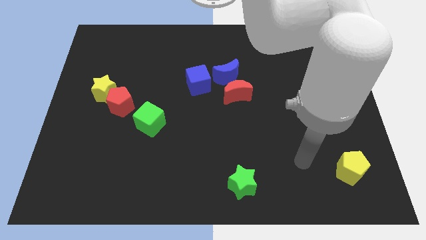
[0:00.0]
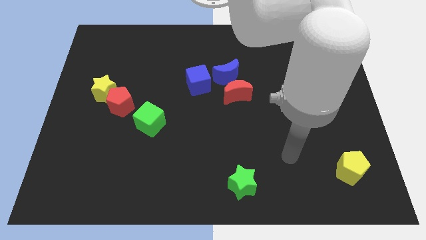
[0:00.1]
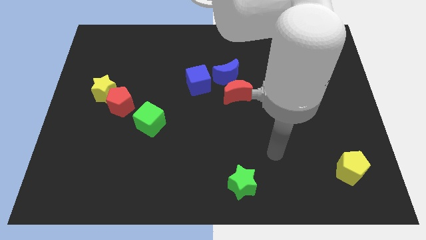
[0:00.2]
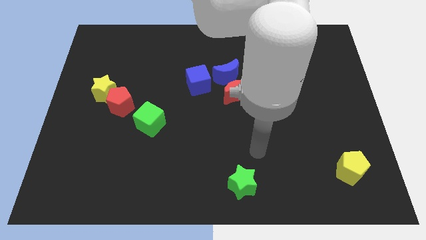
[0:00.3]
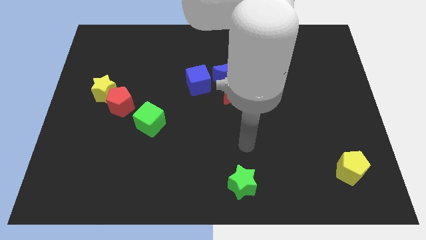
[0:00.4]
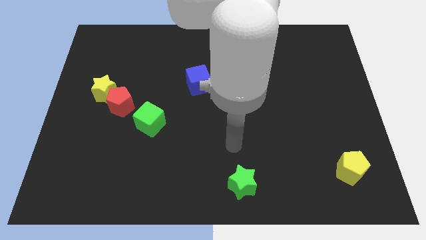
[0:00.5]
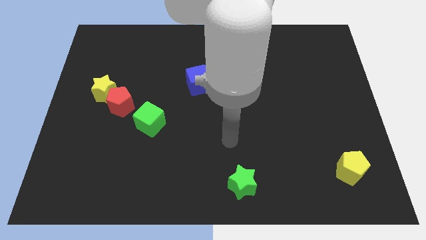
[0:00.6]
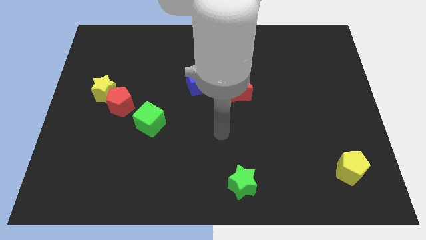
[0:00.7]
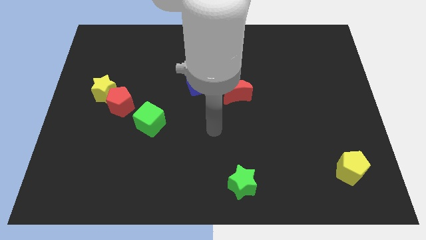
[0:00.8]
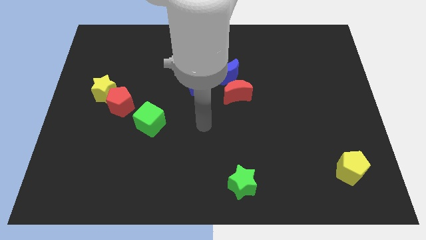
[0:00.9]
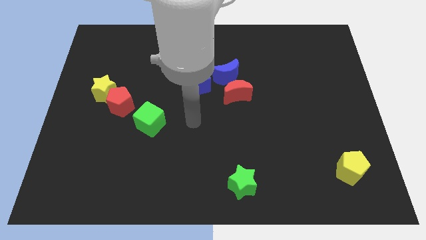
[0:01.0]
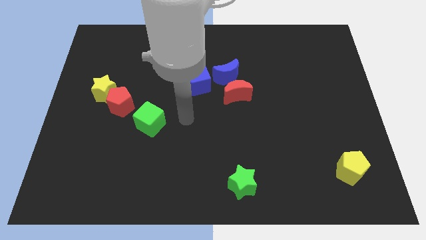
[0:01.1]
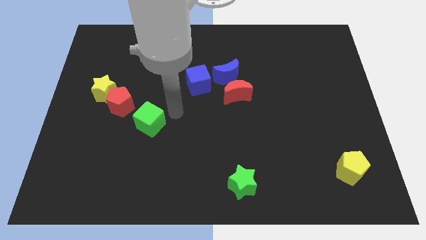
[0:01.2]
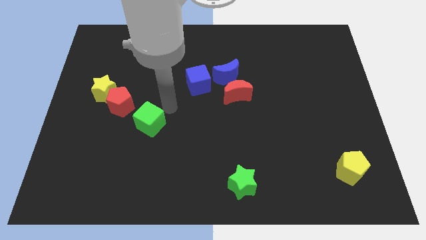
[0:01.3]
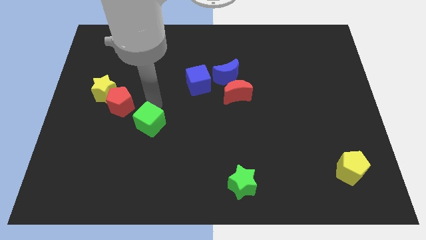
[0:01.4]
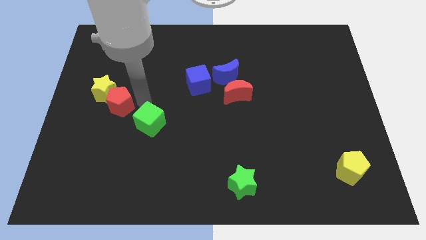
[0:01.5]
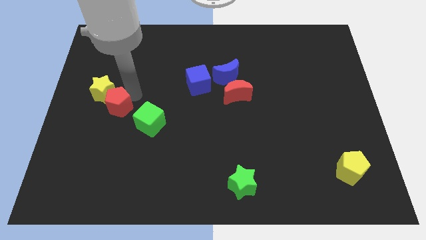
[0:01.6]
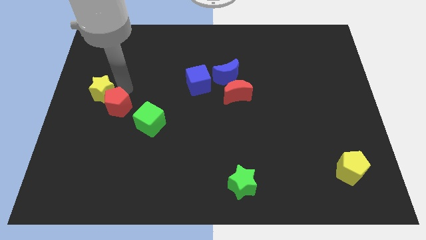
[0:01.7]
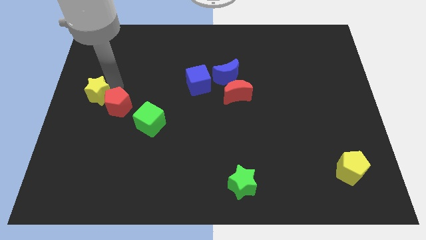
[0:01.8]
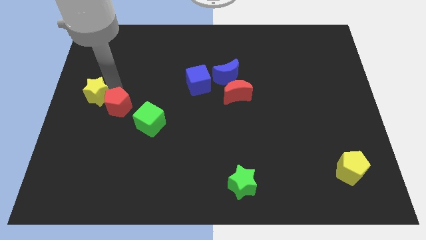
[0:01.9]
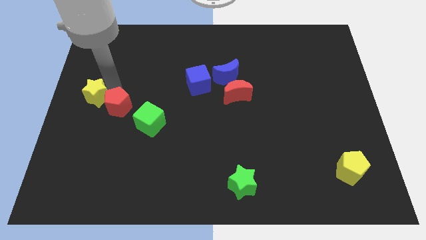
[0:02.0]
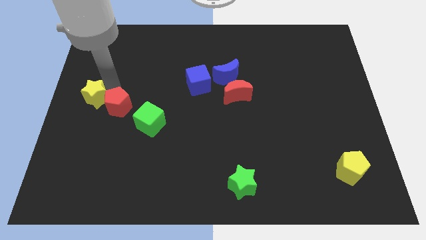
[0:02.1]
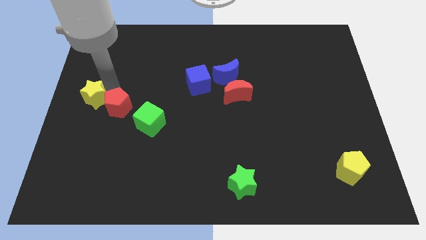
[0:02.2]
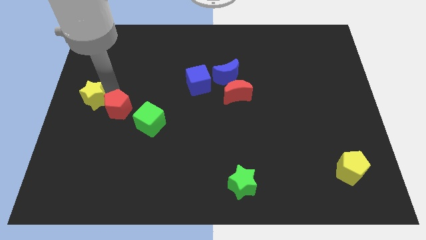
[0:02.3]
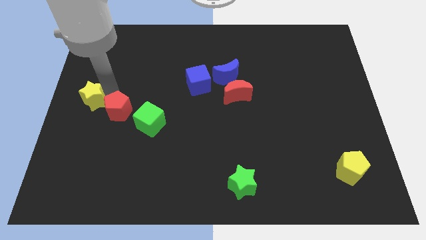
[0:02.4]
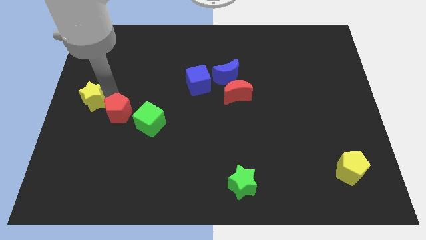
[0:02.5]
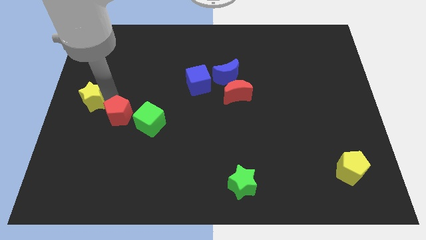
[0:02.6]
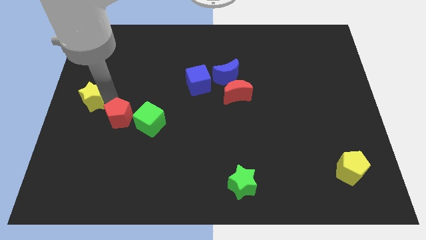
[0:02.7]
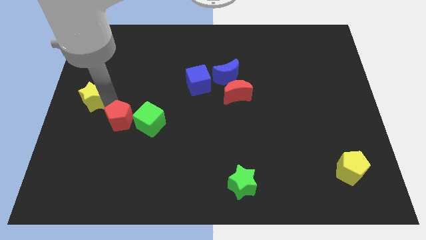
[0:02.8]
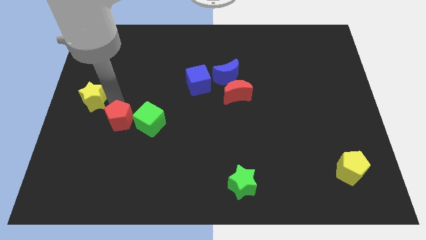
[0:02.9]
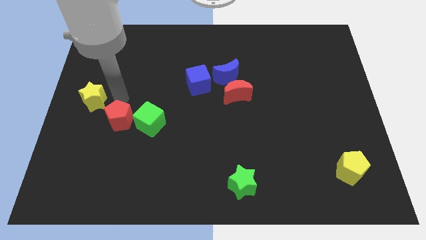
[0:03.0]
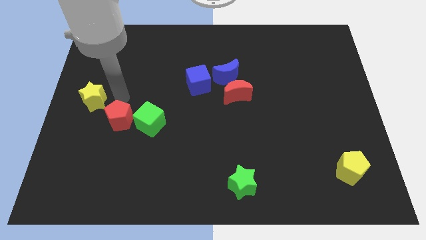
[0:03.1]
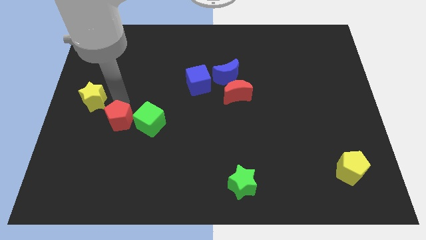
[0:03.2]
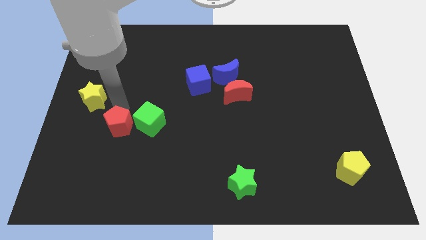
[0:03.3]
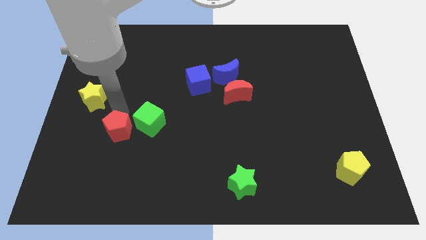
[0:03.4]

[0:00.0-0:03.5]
push the red pentagon downwards a little

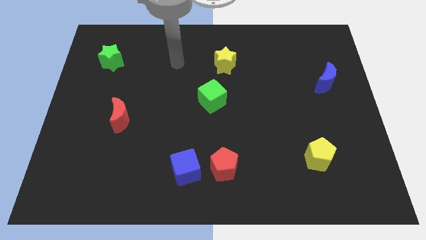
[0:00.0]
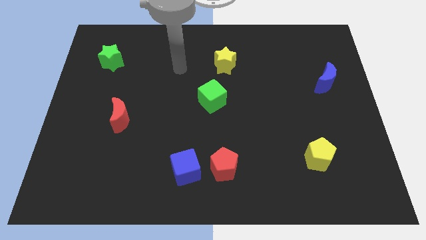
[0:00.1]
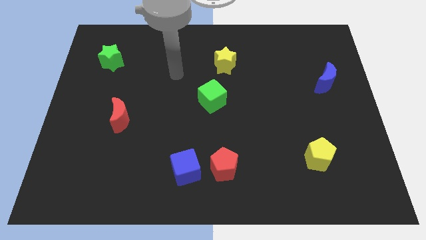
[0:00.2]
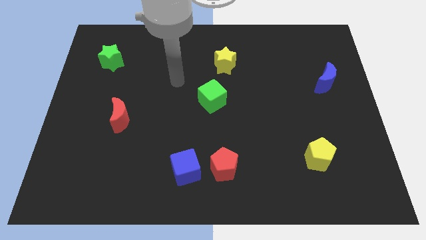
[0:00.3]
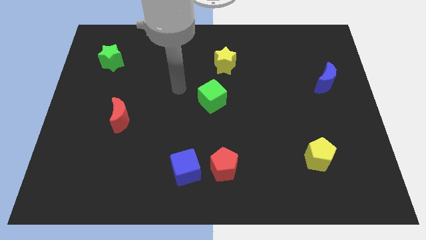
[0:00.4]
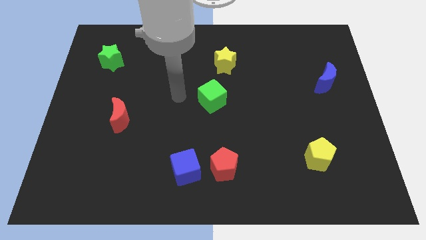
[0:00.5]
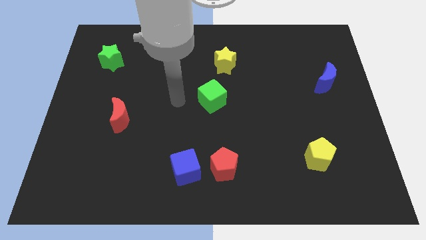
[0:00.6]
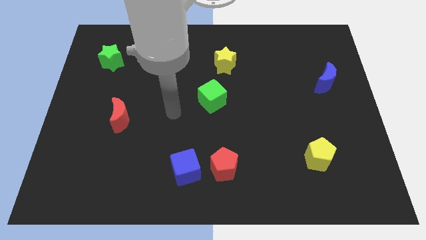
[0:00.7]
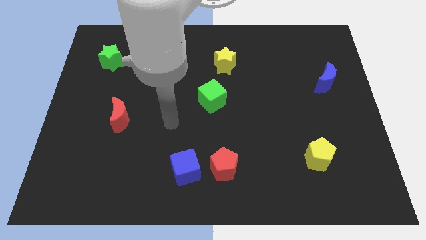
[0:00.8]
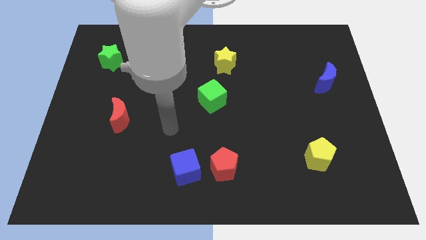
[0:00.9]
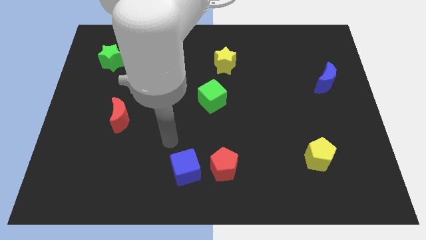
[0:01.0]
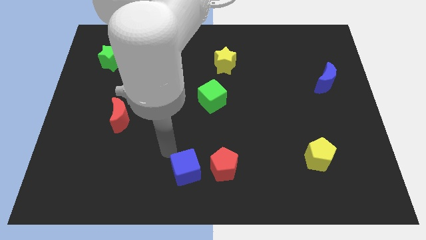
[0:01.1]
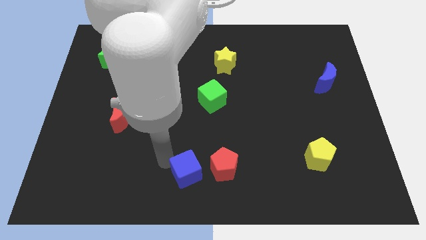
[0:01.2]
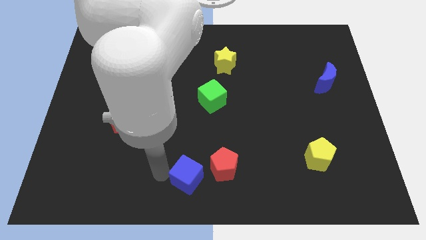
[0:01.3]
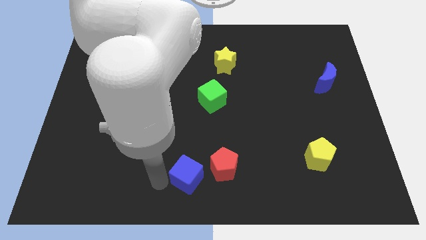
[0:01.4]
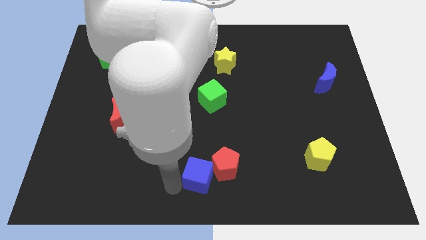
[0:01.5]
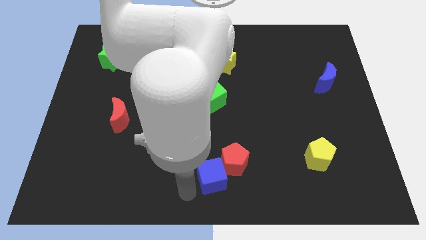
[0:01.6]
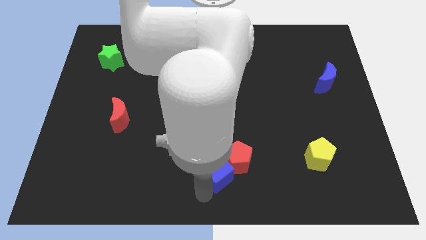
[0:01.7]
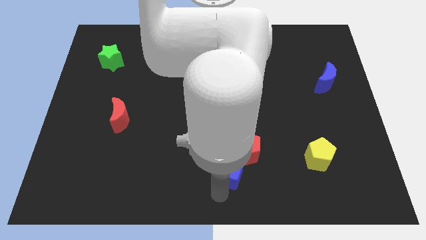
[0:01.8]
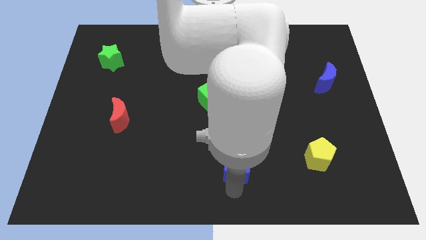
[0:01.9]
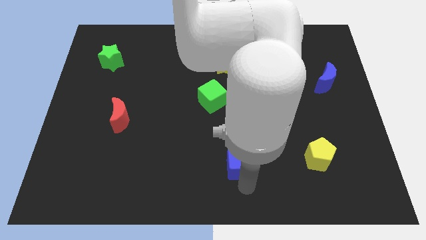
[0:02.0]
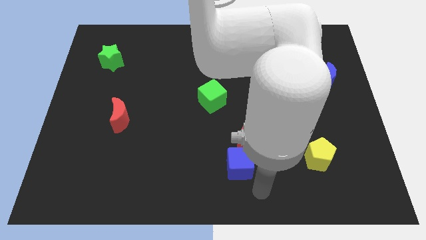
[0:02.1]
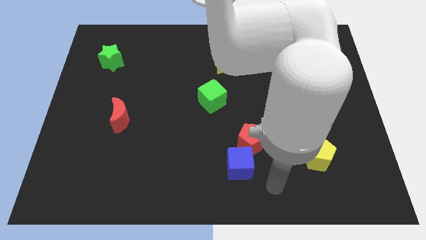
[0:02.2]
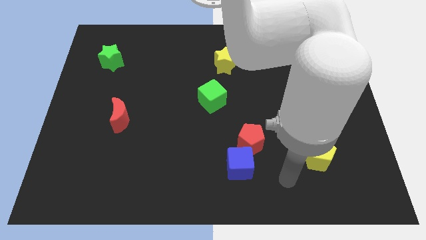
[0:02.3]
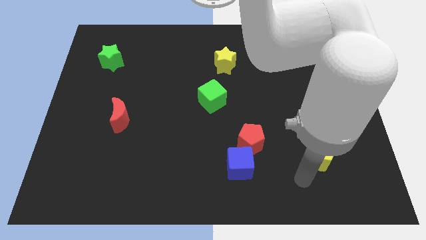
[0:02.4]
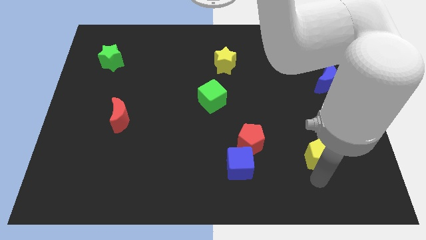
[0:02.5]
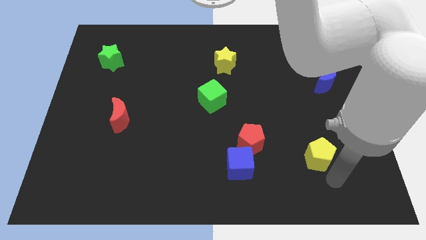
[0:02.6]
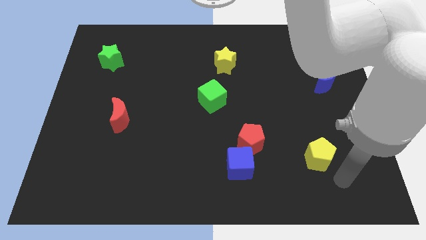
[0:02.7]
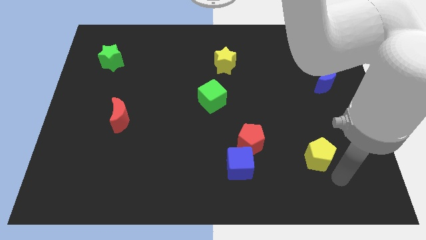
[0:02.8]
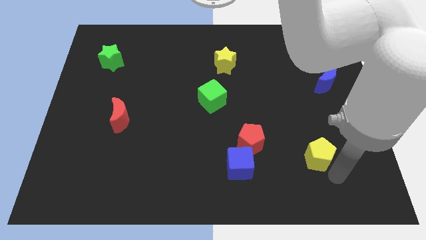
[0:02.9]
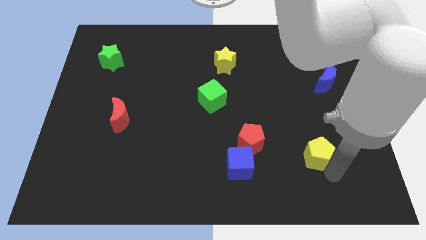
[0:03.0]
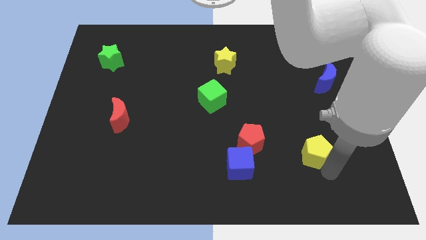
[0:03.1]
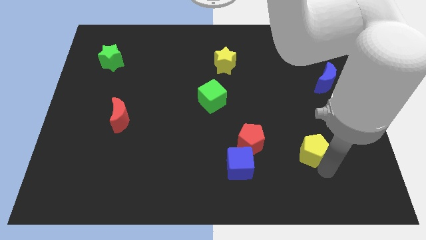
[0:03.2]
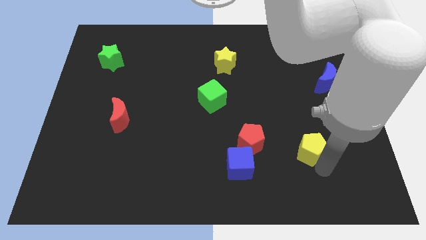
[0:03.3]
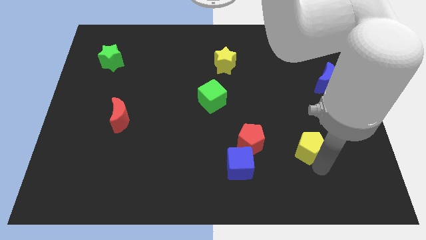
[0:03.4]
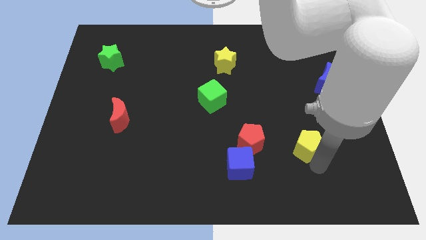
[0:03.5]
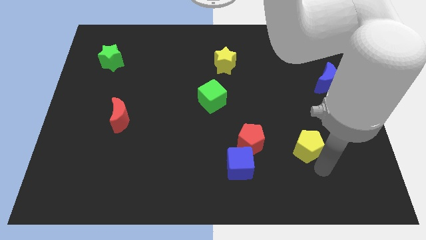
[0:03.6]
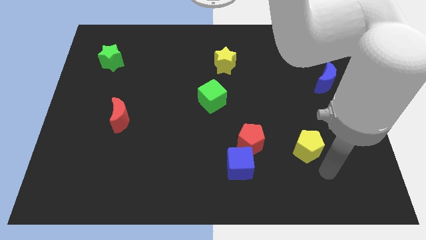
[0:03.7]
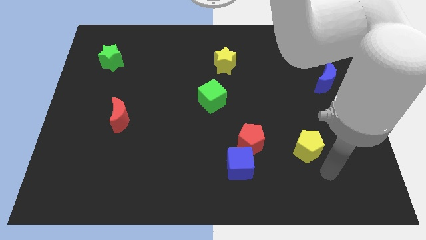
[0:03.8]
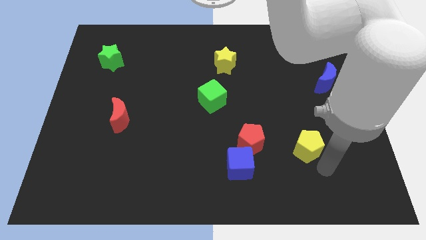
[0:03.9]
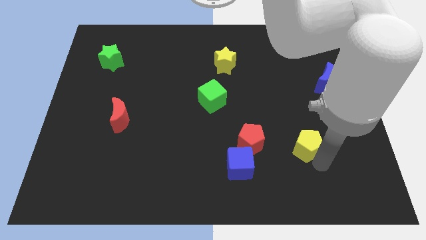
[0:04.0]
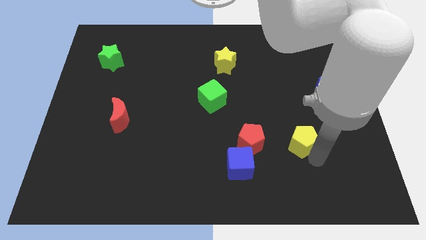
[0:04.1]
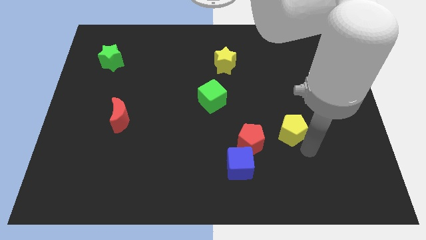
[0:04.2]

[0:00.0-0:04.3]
slightly push the yellow pentagon up and left
